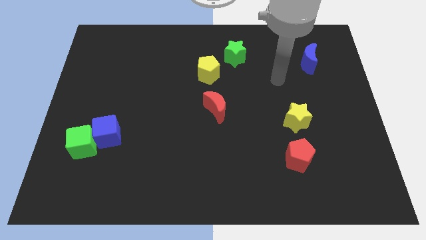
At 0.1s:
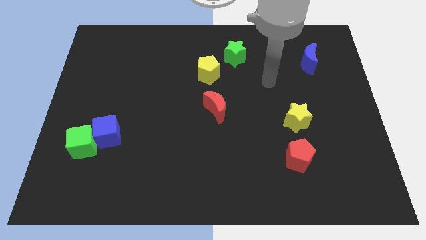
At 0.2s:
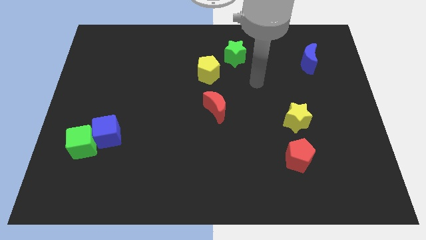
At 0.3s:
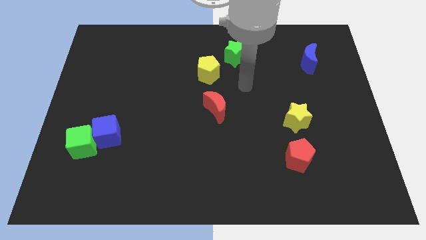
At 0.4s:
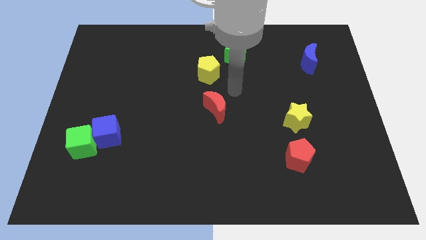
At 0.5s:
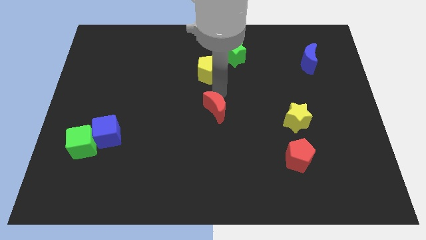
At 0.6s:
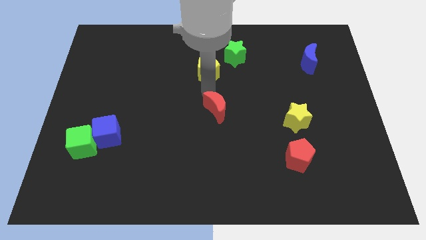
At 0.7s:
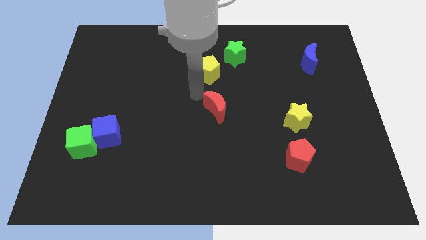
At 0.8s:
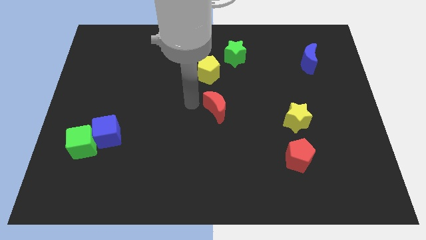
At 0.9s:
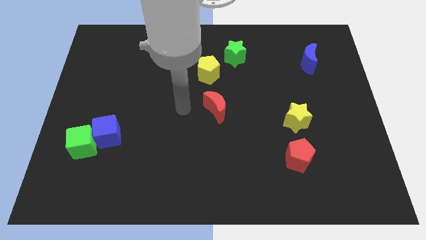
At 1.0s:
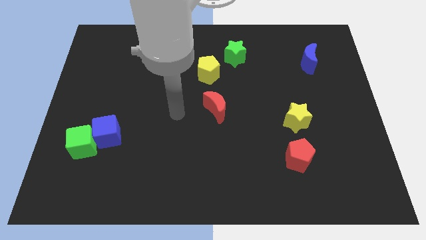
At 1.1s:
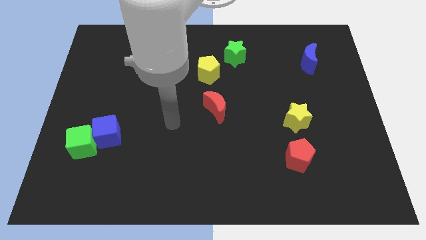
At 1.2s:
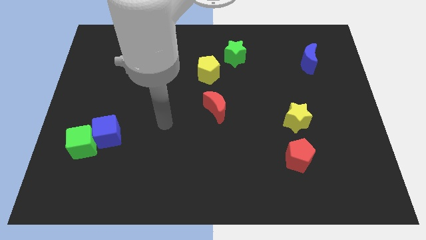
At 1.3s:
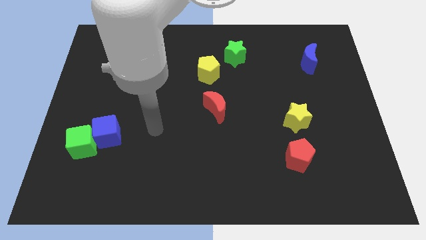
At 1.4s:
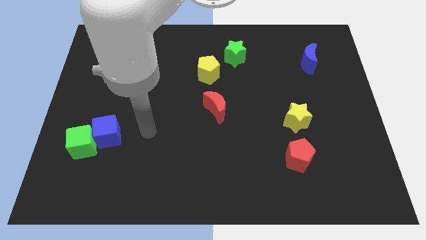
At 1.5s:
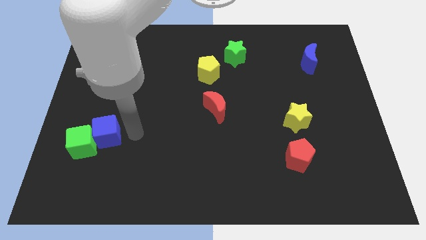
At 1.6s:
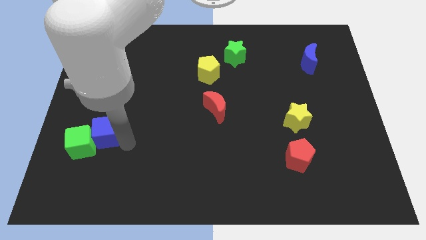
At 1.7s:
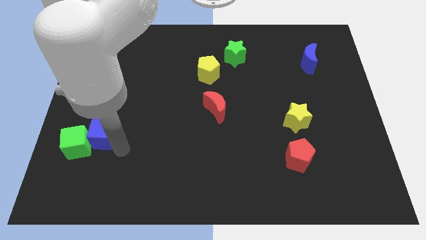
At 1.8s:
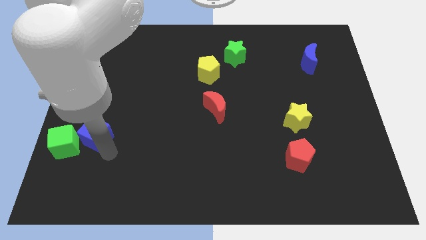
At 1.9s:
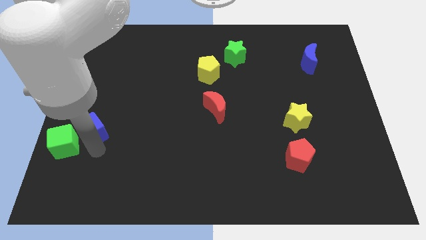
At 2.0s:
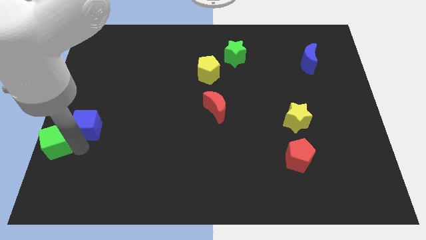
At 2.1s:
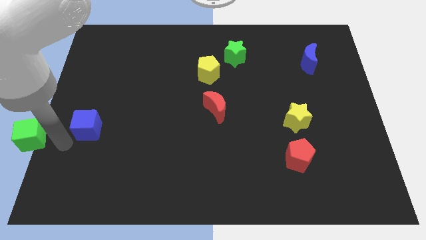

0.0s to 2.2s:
pull the blue cube apart from the green cube

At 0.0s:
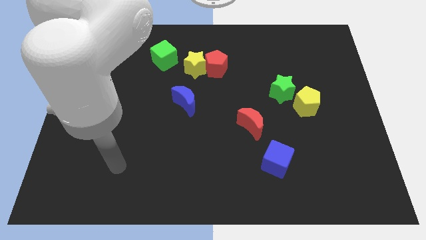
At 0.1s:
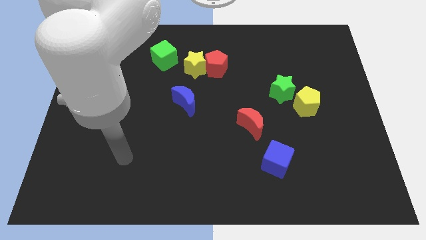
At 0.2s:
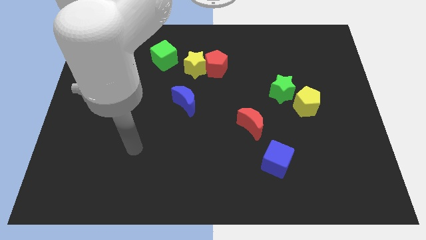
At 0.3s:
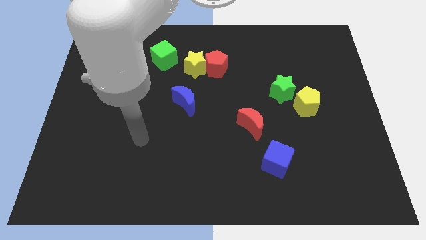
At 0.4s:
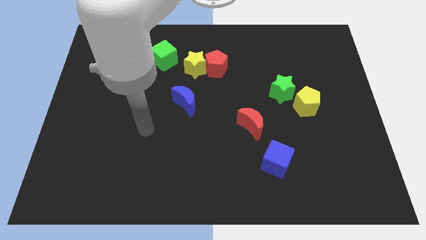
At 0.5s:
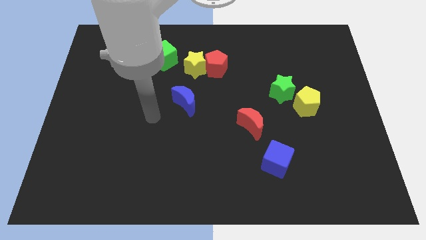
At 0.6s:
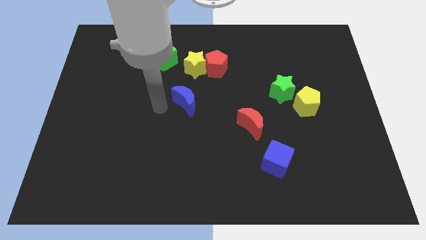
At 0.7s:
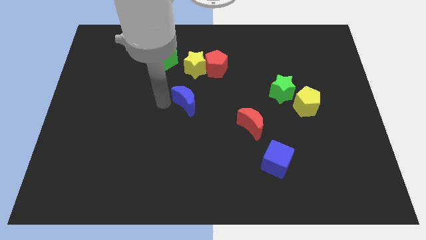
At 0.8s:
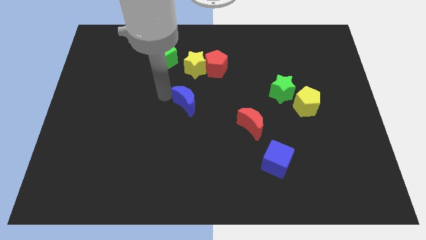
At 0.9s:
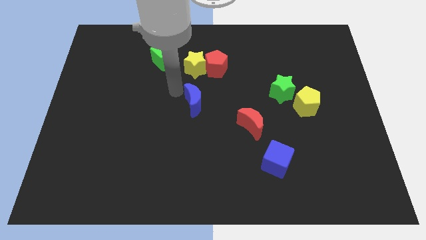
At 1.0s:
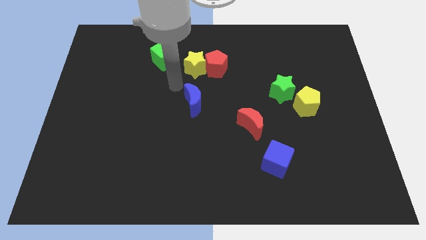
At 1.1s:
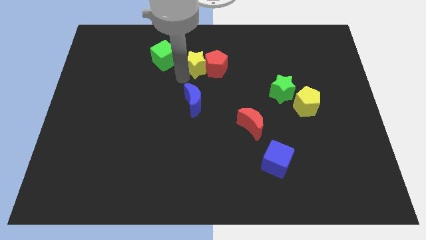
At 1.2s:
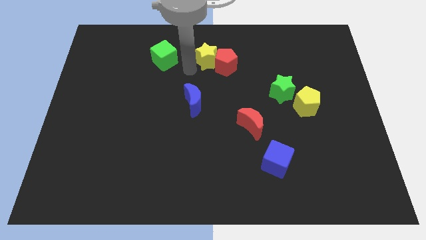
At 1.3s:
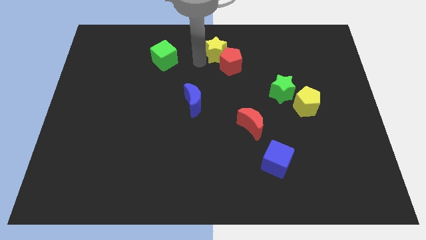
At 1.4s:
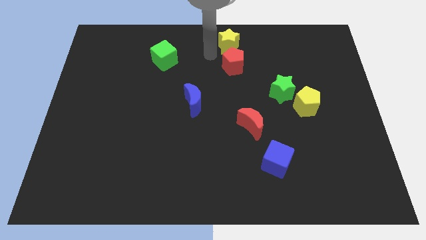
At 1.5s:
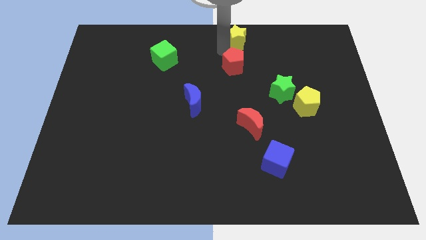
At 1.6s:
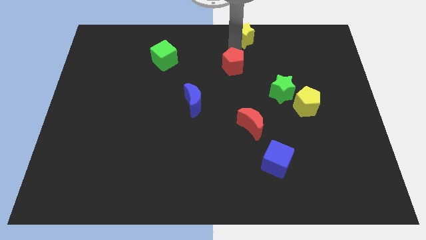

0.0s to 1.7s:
move the red pentagon away from the yellow star

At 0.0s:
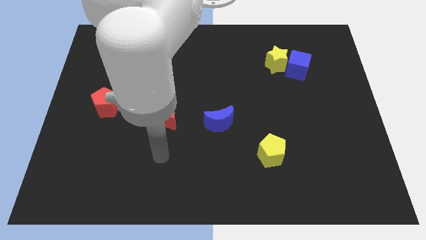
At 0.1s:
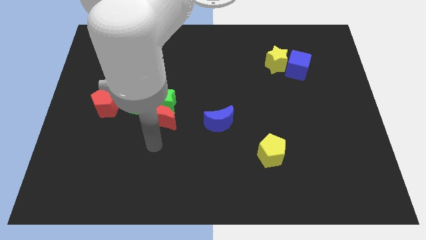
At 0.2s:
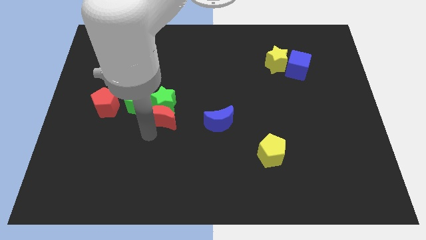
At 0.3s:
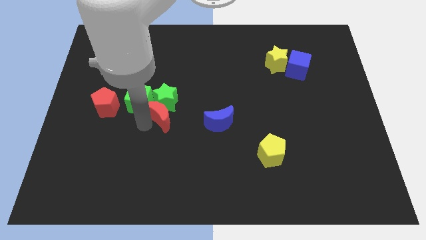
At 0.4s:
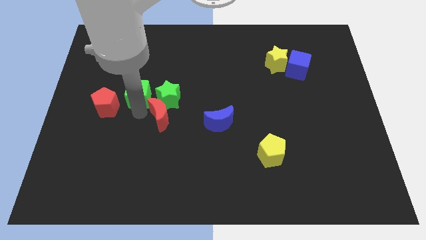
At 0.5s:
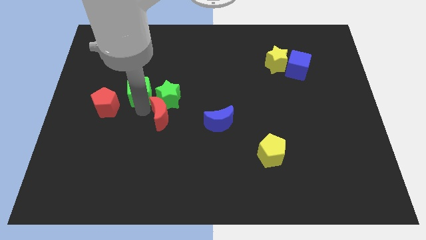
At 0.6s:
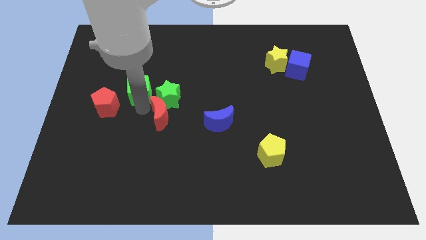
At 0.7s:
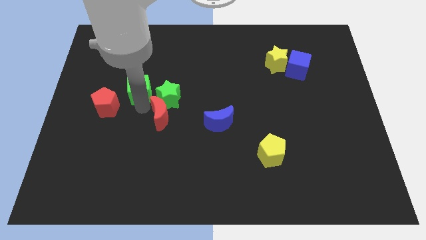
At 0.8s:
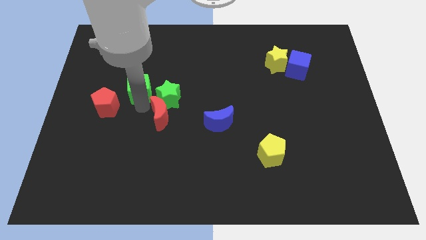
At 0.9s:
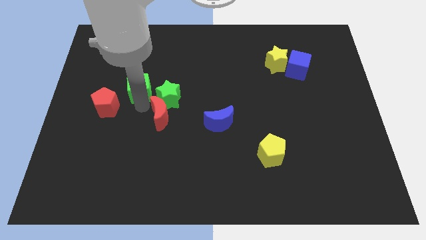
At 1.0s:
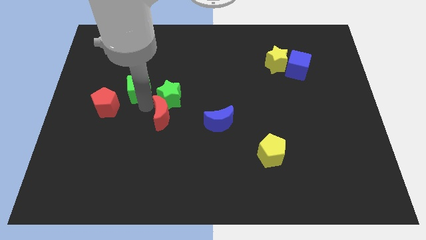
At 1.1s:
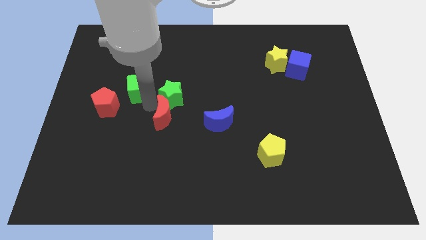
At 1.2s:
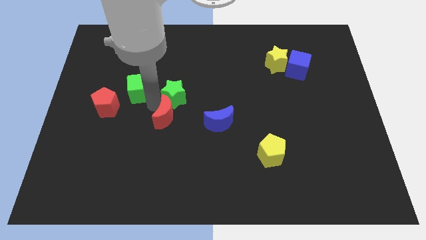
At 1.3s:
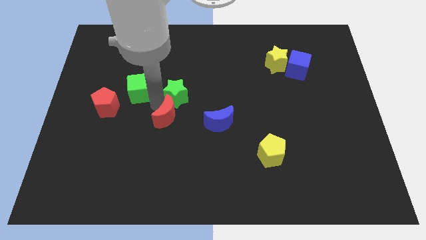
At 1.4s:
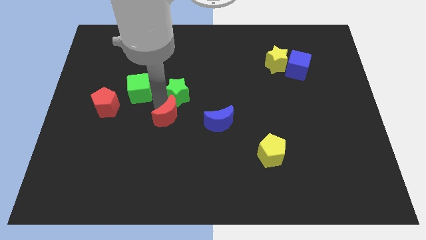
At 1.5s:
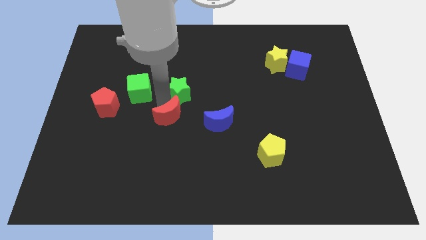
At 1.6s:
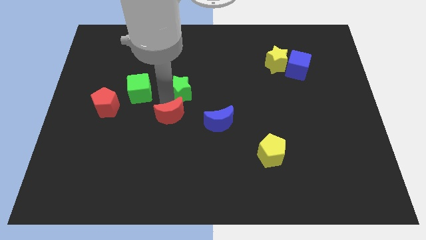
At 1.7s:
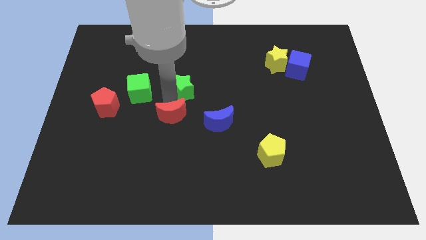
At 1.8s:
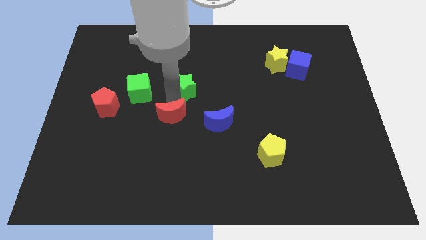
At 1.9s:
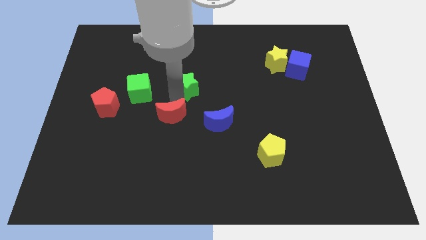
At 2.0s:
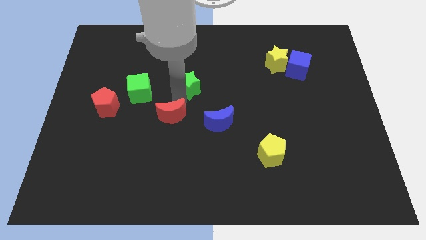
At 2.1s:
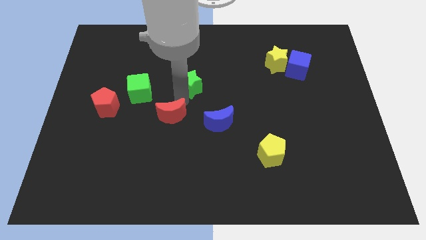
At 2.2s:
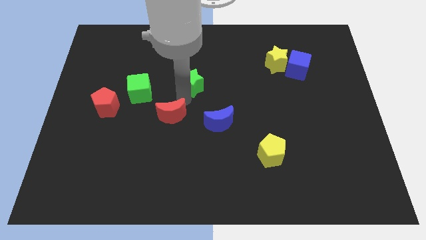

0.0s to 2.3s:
move the green star away from the red moon and green cube

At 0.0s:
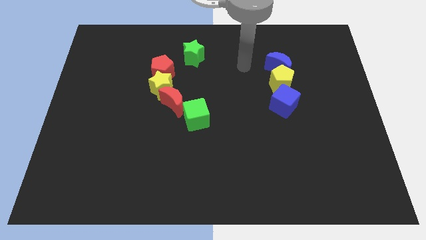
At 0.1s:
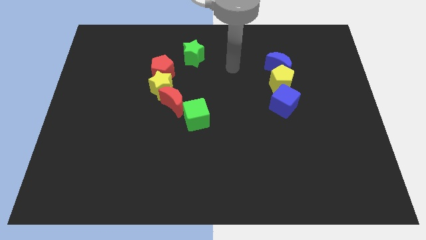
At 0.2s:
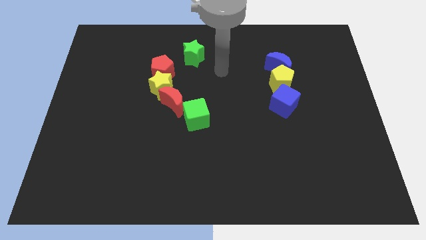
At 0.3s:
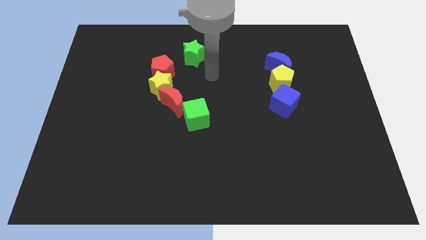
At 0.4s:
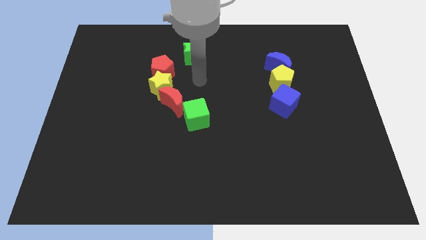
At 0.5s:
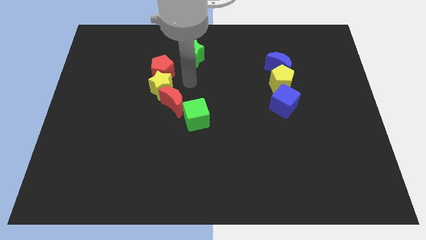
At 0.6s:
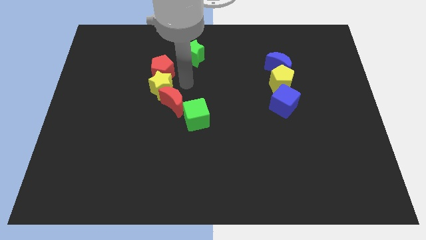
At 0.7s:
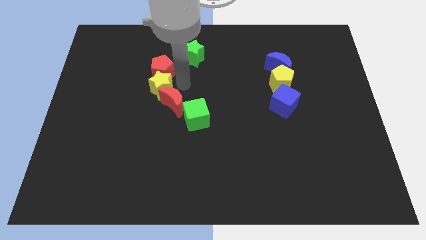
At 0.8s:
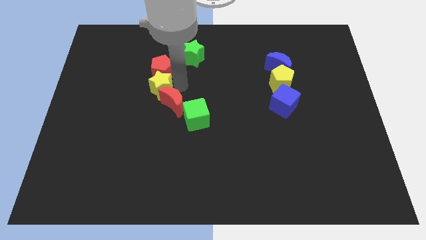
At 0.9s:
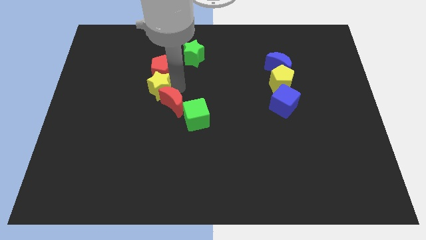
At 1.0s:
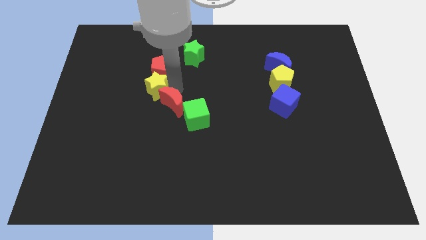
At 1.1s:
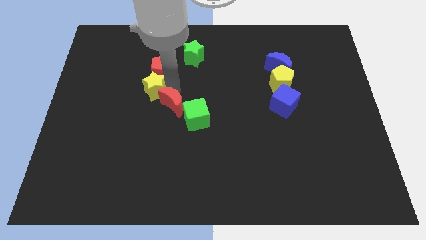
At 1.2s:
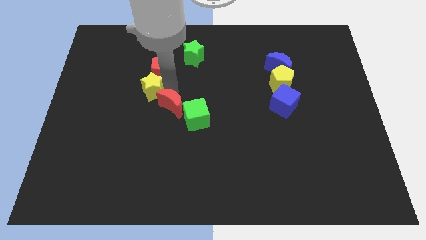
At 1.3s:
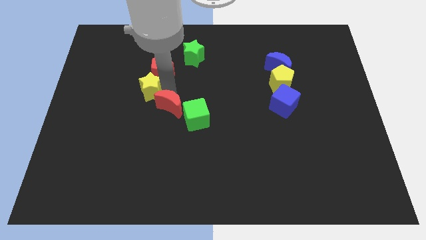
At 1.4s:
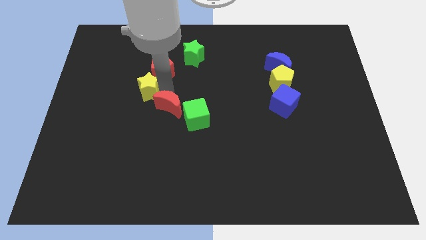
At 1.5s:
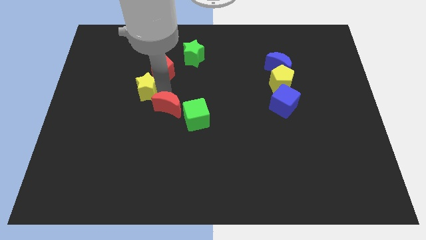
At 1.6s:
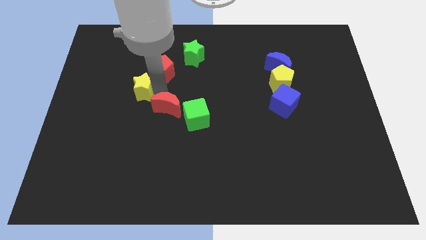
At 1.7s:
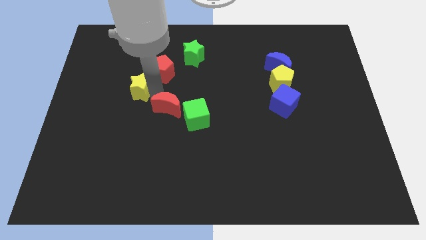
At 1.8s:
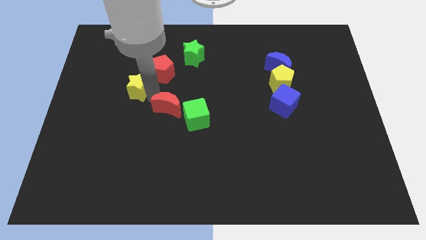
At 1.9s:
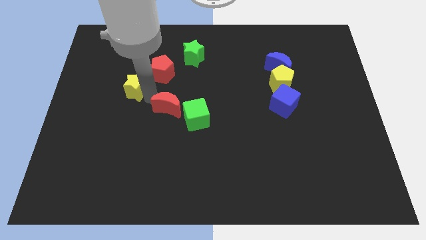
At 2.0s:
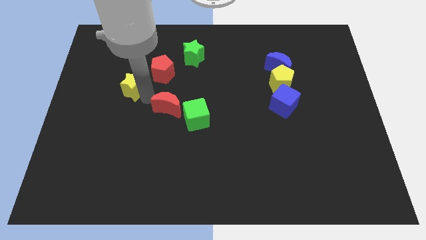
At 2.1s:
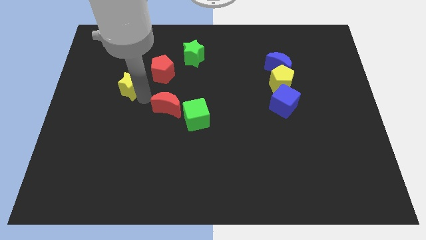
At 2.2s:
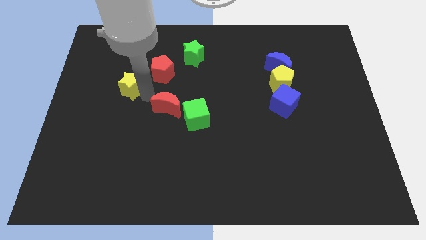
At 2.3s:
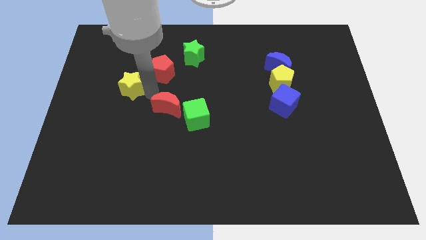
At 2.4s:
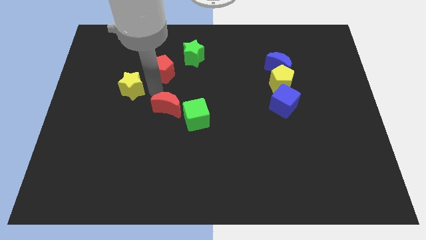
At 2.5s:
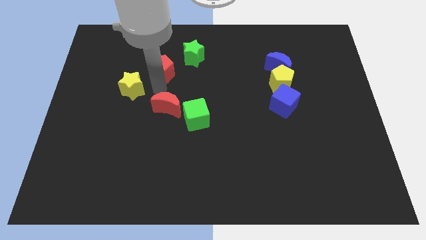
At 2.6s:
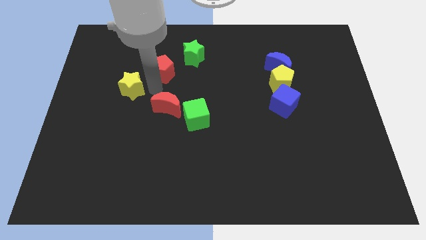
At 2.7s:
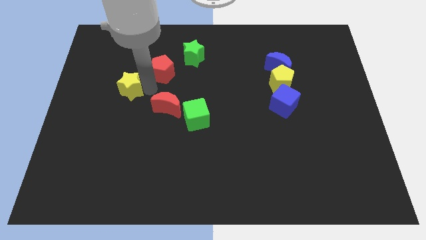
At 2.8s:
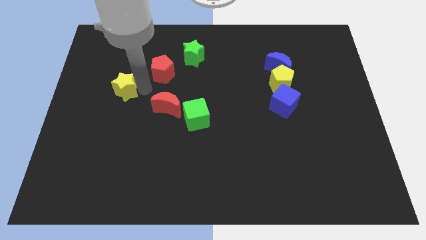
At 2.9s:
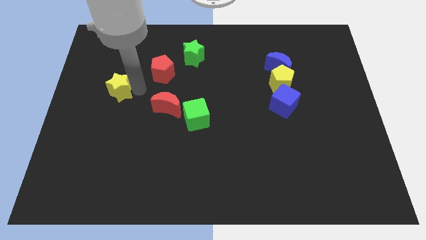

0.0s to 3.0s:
pull the yellow star apart from the red pentagon and red moon

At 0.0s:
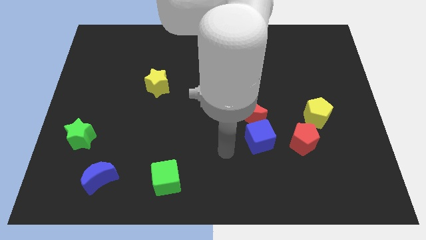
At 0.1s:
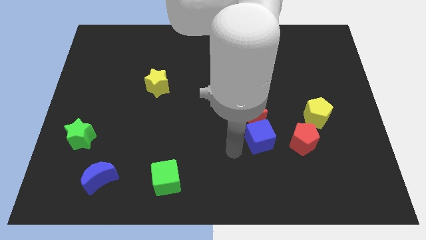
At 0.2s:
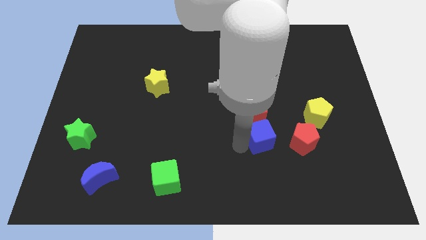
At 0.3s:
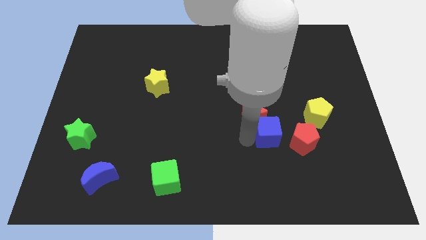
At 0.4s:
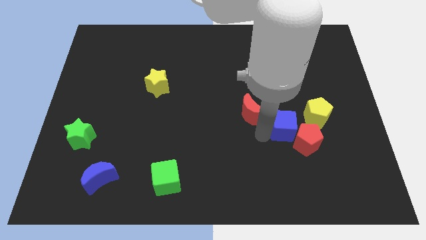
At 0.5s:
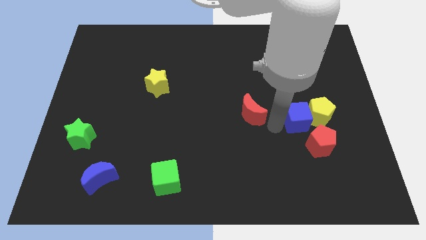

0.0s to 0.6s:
separate the red moon from the blue cube
